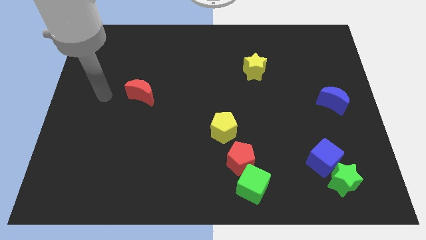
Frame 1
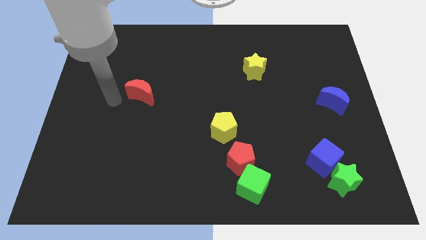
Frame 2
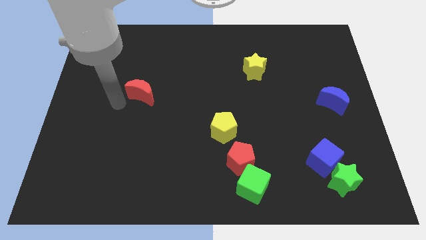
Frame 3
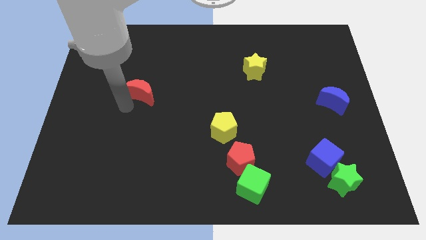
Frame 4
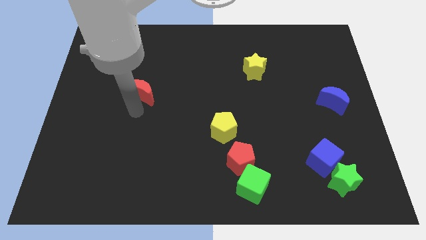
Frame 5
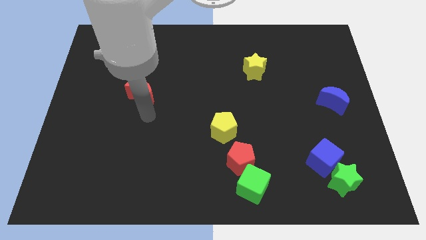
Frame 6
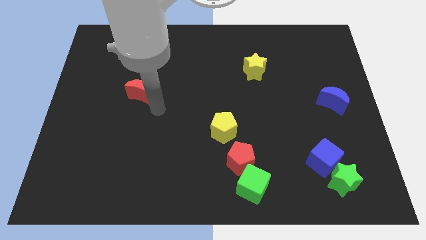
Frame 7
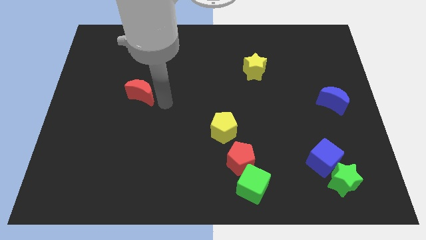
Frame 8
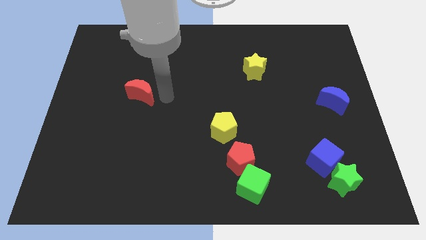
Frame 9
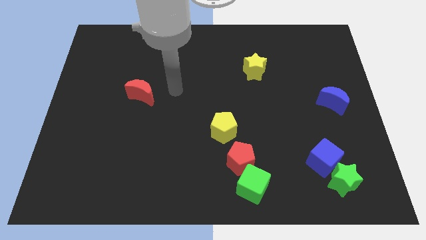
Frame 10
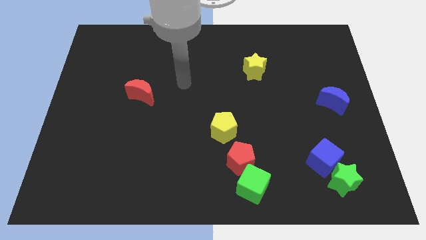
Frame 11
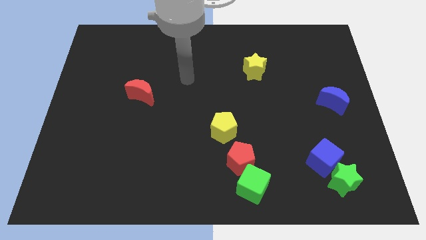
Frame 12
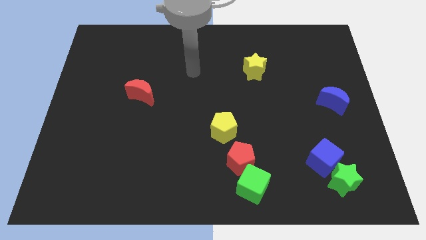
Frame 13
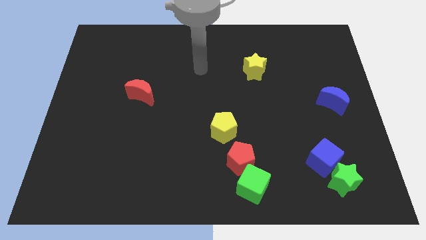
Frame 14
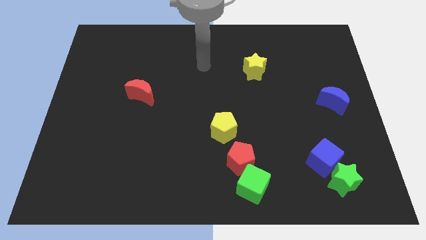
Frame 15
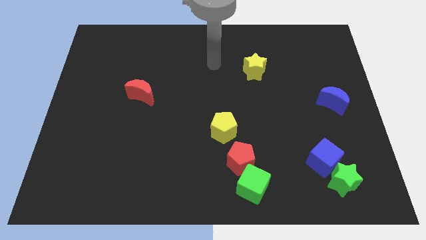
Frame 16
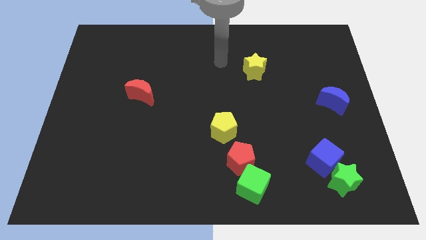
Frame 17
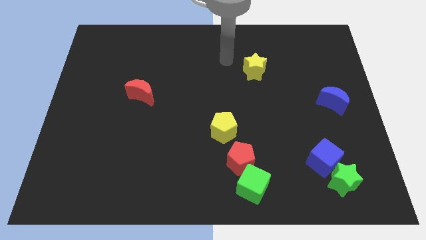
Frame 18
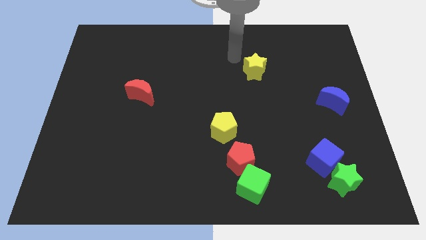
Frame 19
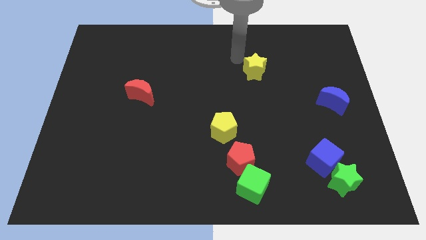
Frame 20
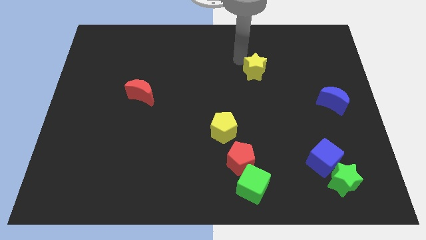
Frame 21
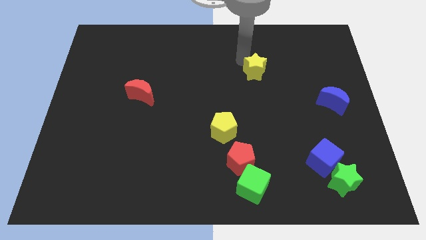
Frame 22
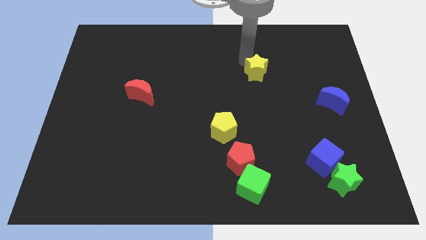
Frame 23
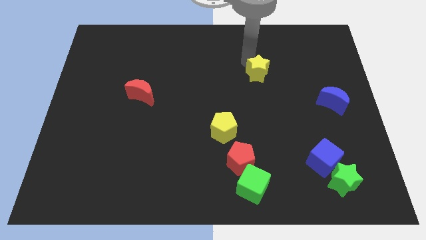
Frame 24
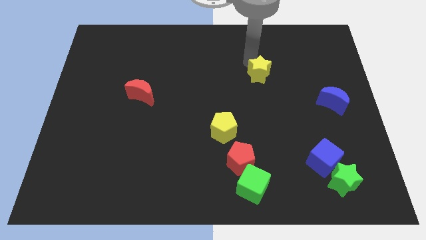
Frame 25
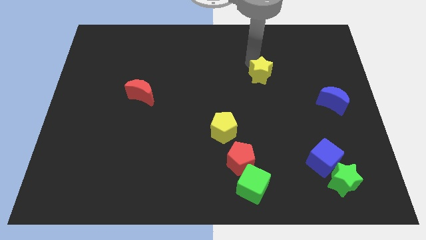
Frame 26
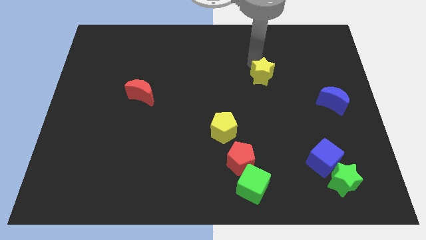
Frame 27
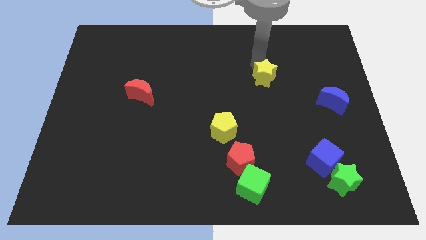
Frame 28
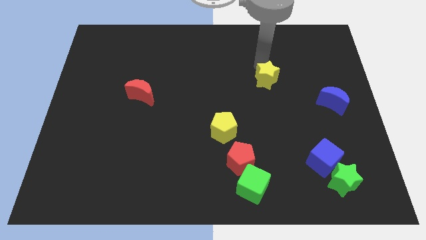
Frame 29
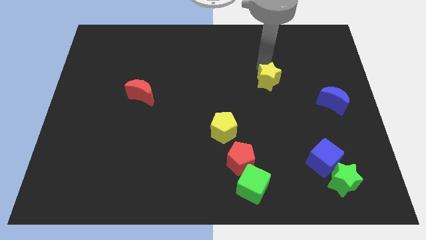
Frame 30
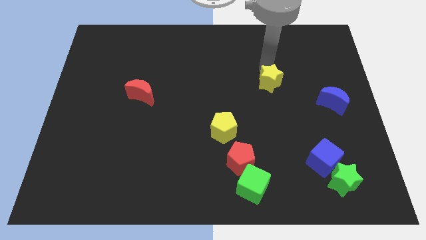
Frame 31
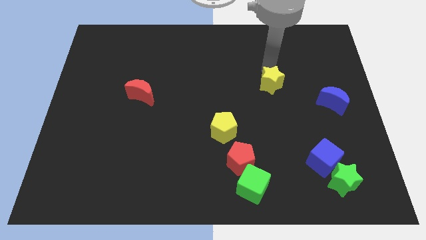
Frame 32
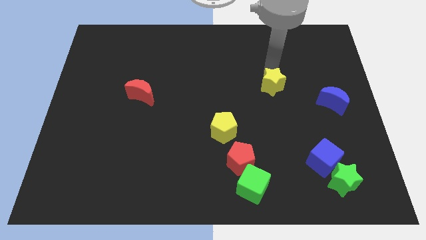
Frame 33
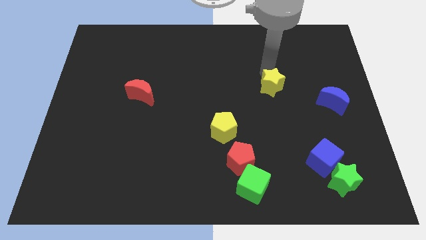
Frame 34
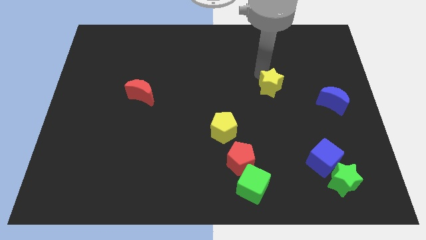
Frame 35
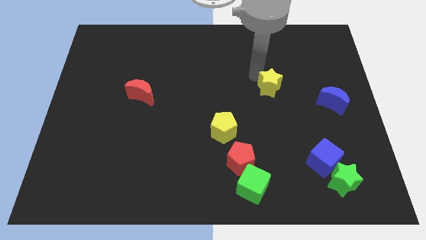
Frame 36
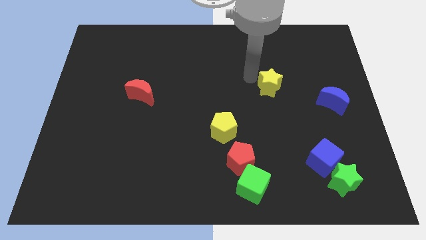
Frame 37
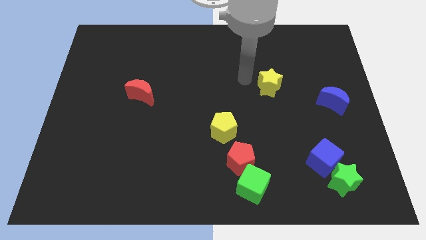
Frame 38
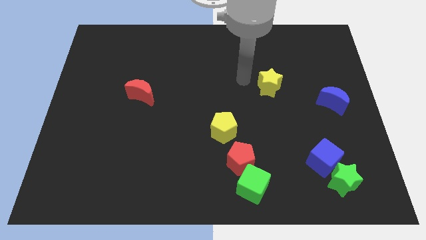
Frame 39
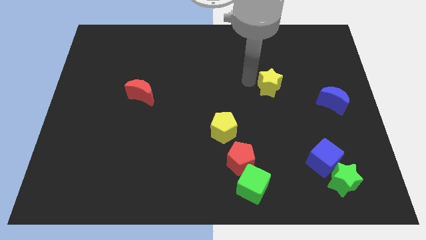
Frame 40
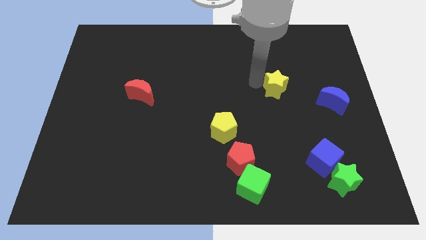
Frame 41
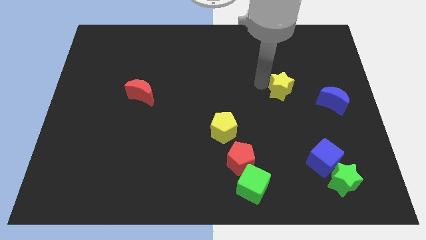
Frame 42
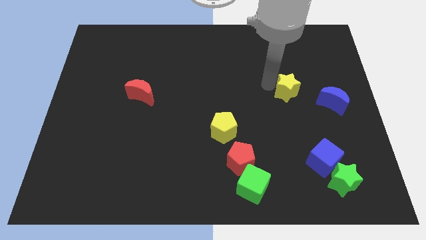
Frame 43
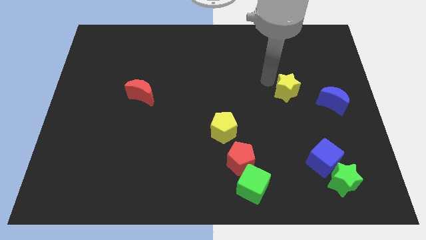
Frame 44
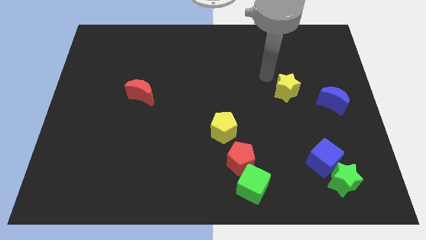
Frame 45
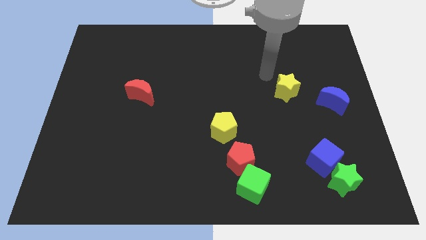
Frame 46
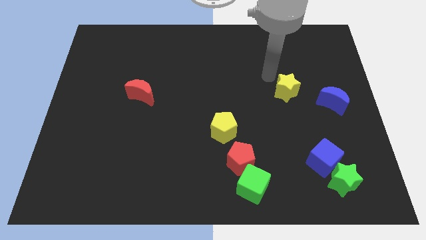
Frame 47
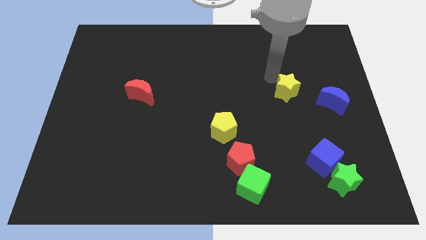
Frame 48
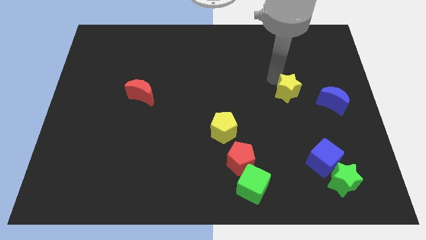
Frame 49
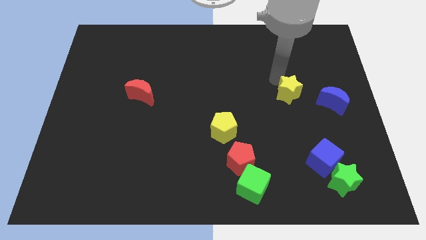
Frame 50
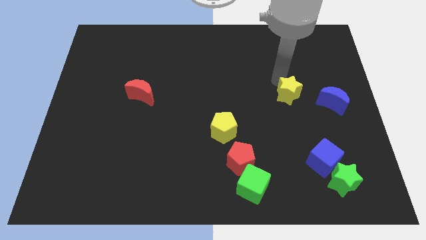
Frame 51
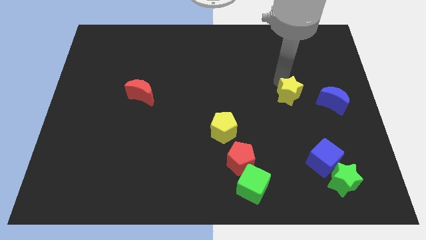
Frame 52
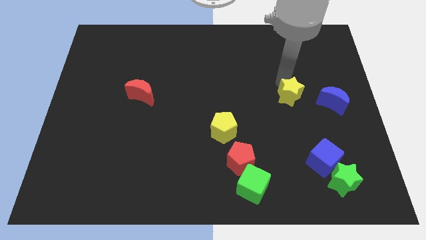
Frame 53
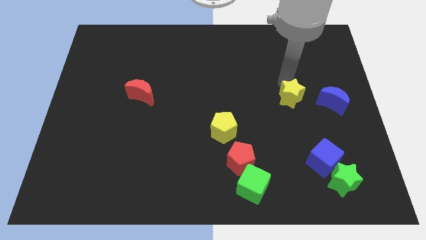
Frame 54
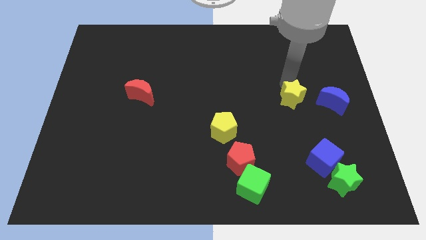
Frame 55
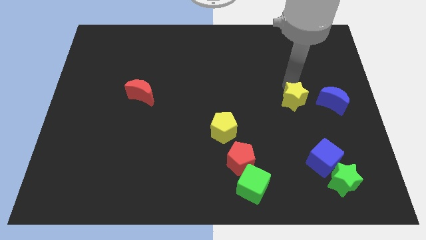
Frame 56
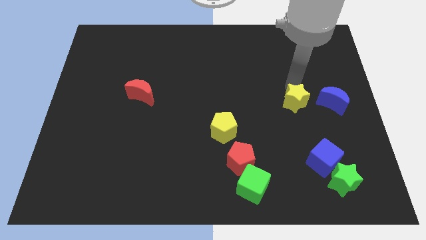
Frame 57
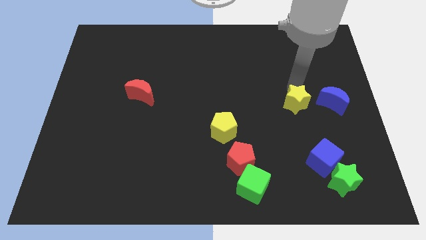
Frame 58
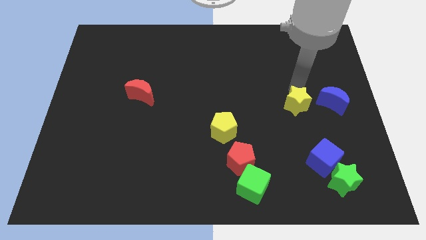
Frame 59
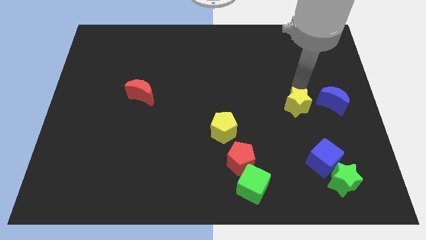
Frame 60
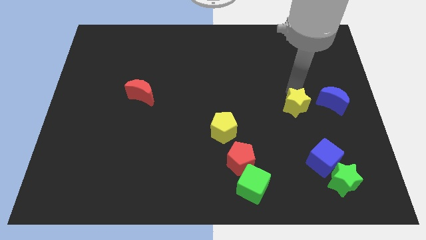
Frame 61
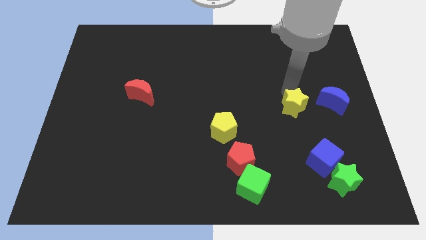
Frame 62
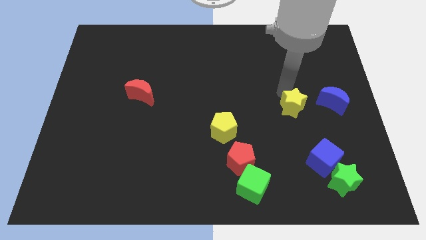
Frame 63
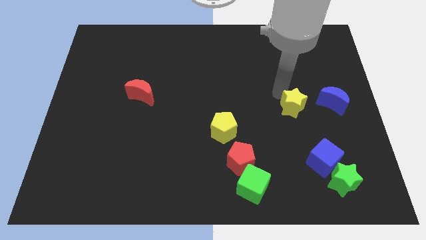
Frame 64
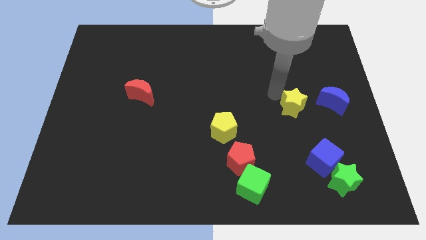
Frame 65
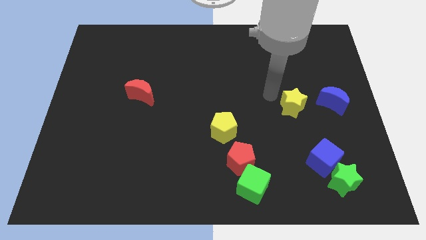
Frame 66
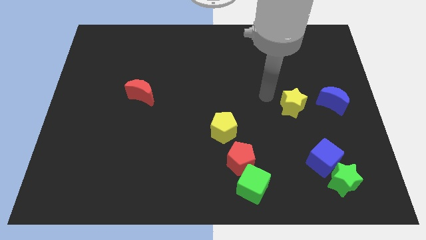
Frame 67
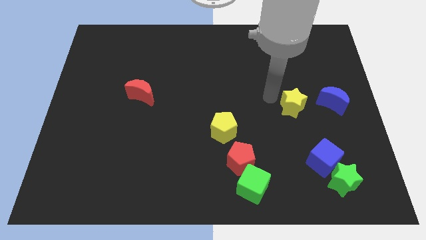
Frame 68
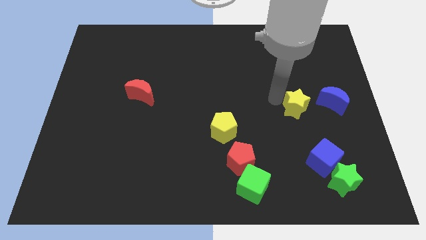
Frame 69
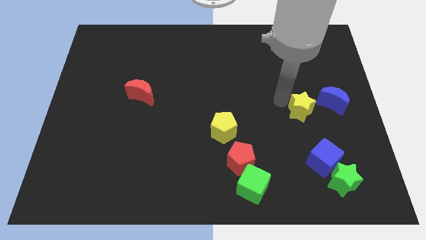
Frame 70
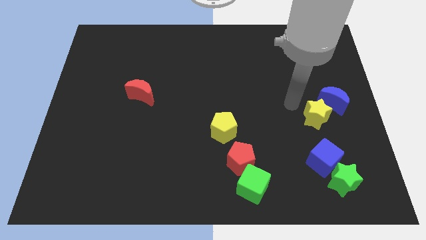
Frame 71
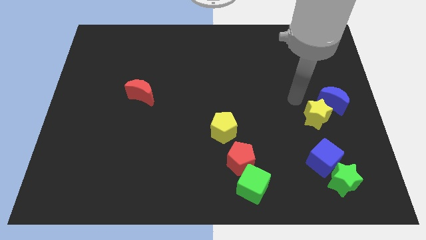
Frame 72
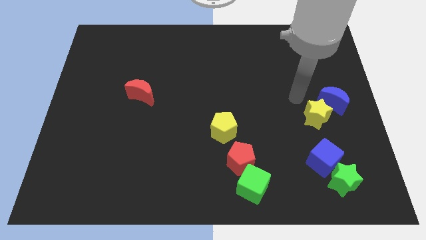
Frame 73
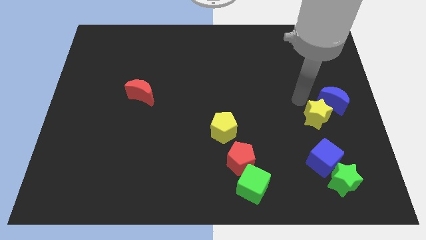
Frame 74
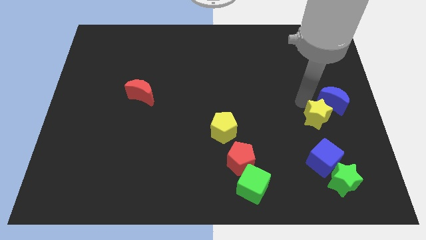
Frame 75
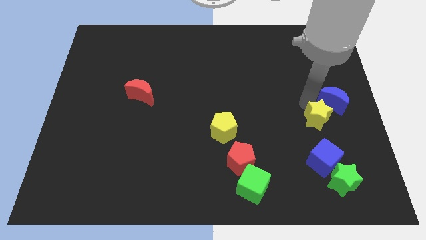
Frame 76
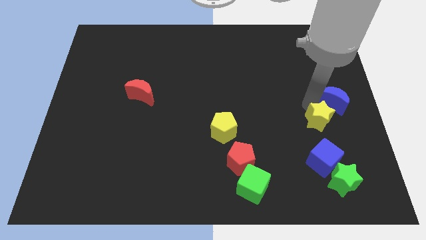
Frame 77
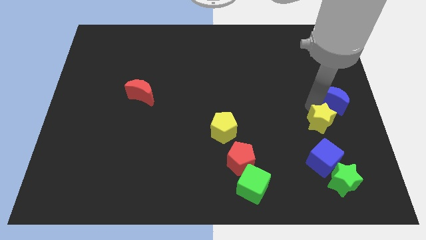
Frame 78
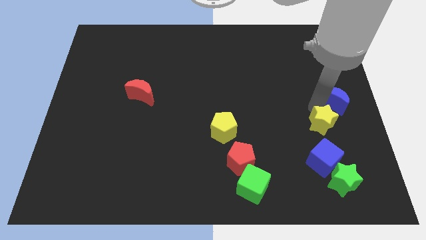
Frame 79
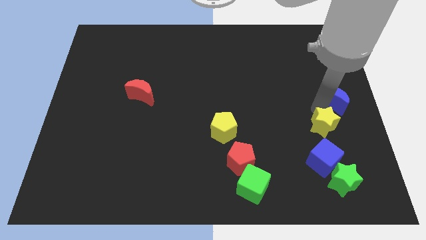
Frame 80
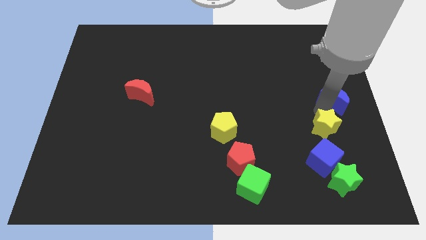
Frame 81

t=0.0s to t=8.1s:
push the yellow star to the top right of the blue cube
